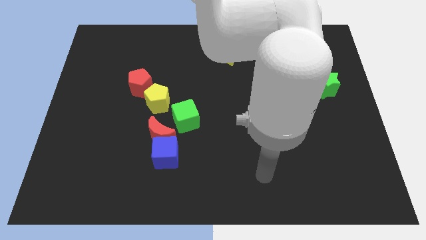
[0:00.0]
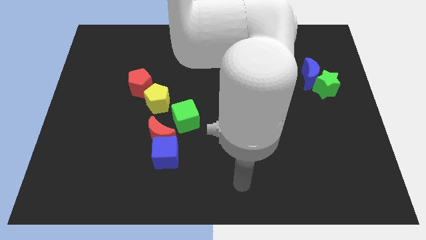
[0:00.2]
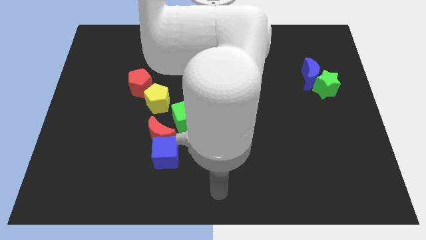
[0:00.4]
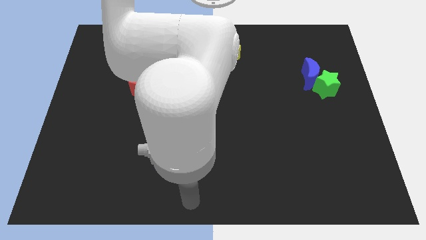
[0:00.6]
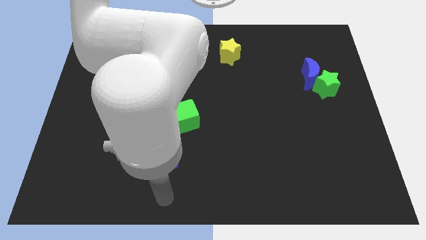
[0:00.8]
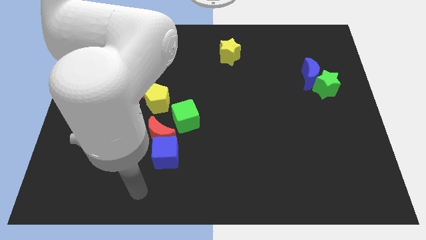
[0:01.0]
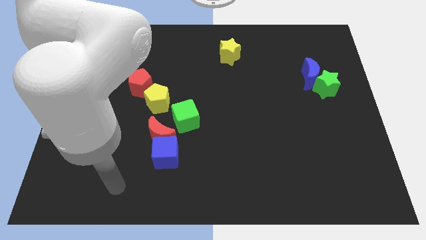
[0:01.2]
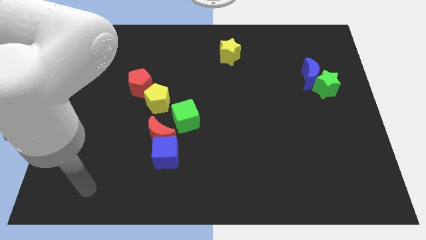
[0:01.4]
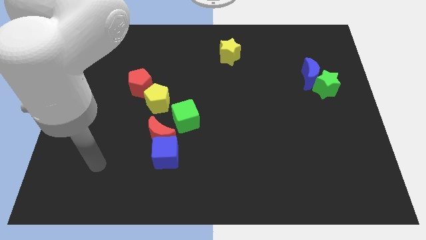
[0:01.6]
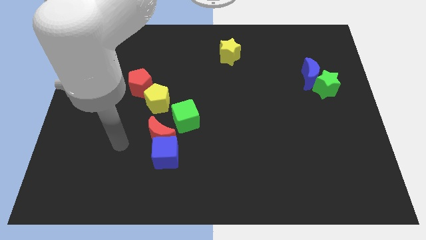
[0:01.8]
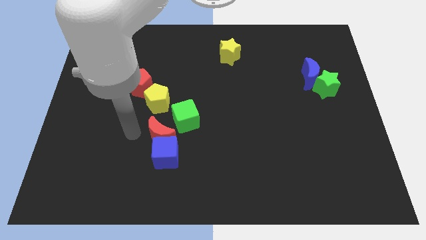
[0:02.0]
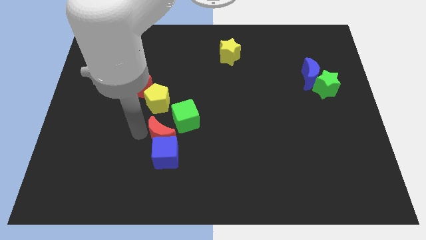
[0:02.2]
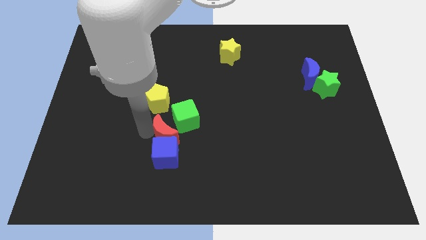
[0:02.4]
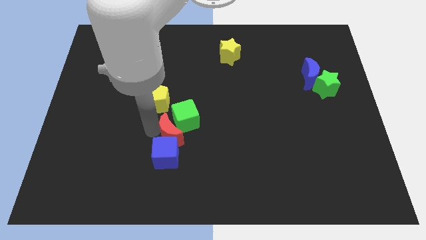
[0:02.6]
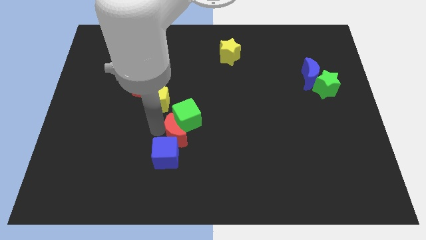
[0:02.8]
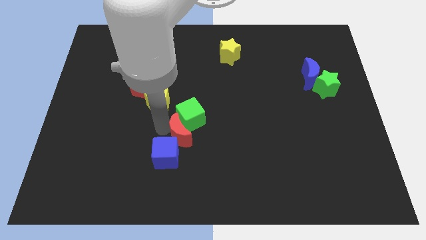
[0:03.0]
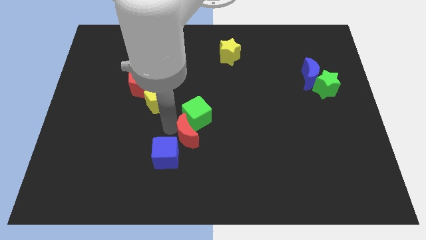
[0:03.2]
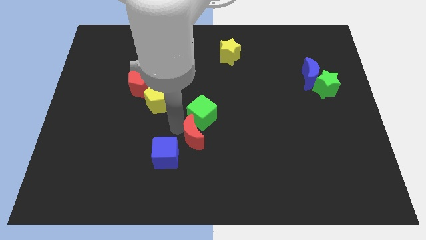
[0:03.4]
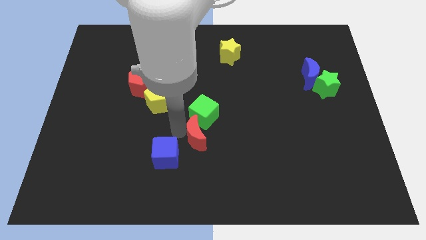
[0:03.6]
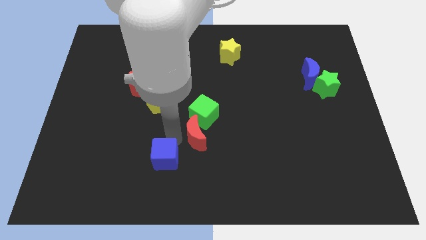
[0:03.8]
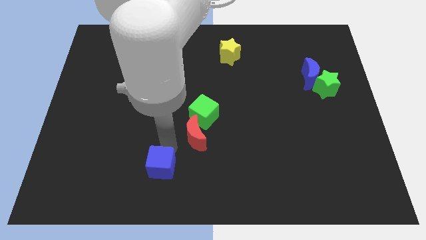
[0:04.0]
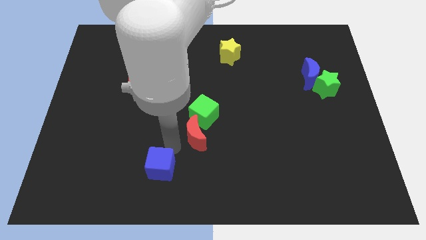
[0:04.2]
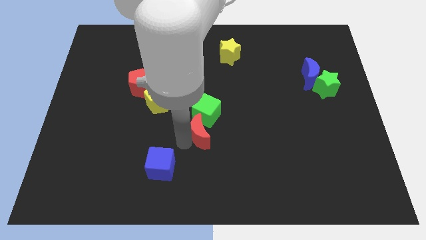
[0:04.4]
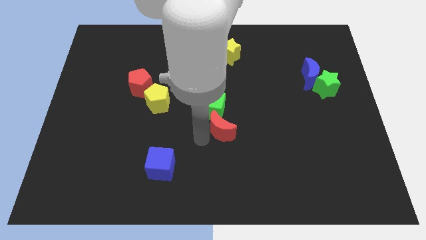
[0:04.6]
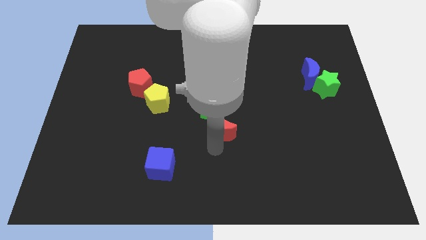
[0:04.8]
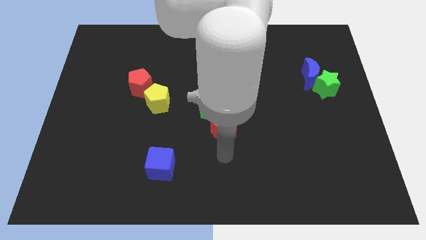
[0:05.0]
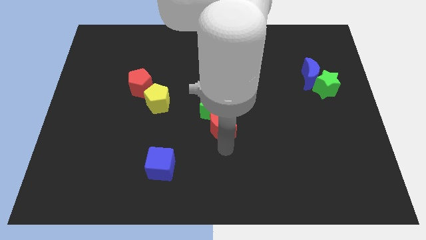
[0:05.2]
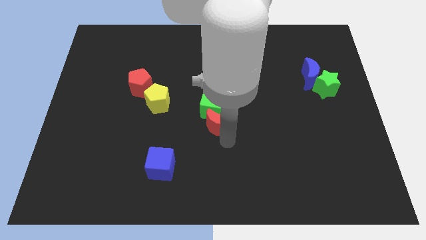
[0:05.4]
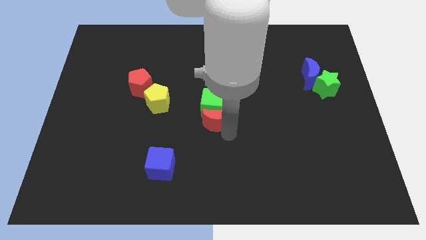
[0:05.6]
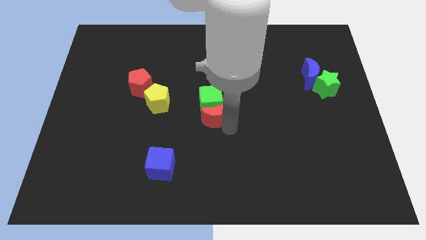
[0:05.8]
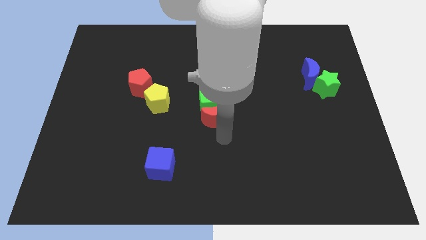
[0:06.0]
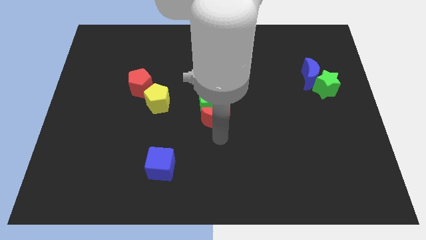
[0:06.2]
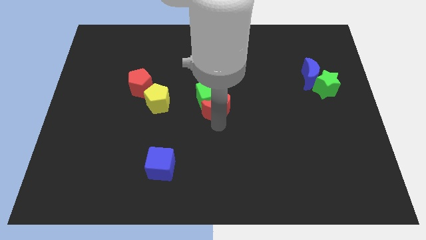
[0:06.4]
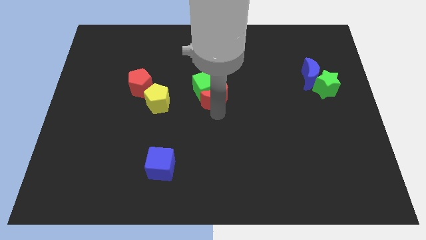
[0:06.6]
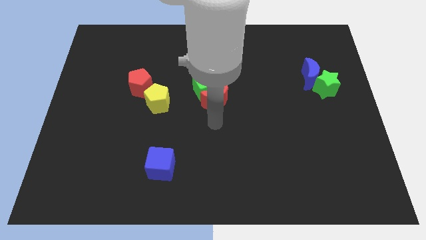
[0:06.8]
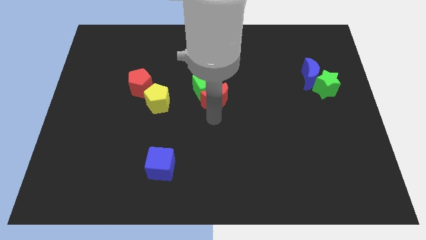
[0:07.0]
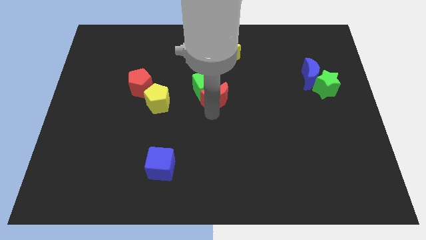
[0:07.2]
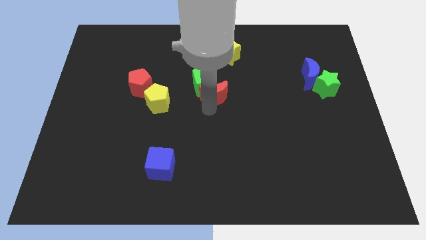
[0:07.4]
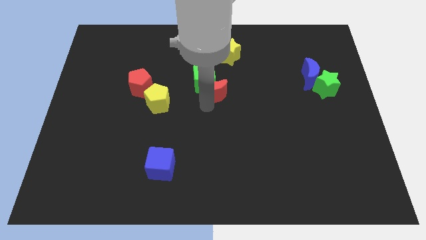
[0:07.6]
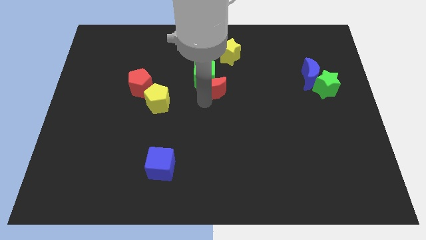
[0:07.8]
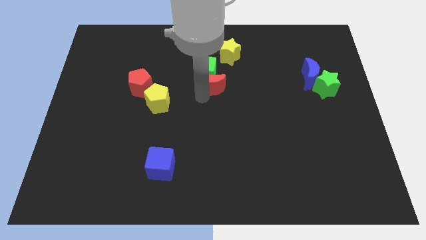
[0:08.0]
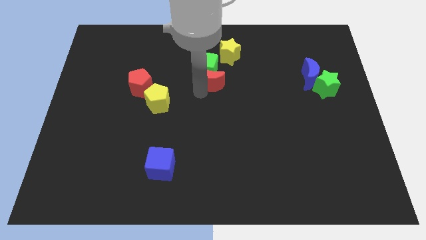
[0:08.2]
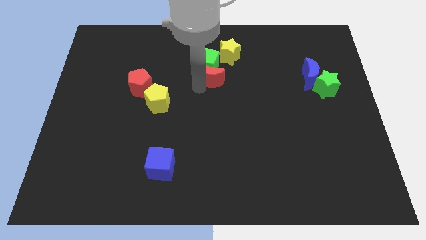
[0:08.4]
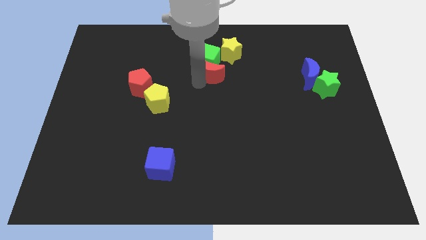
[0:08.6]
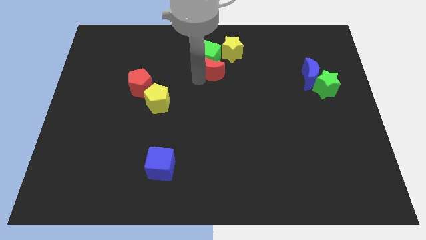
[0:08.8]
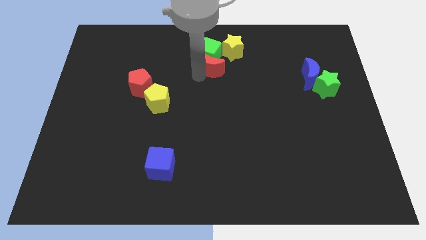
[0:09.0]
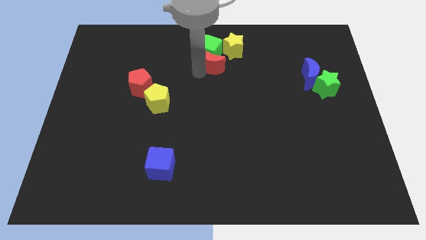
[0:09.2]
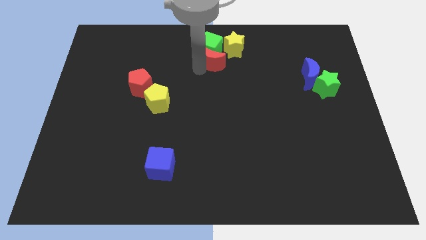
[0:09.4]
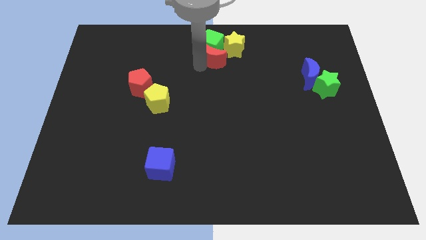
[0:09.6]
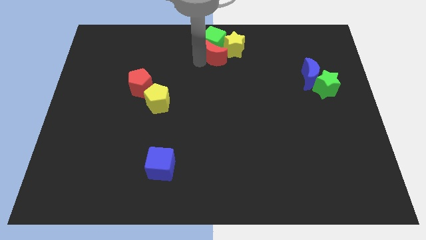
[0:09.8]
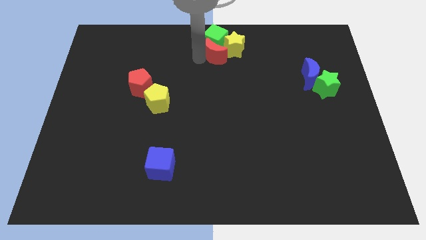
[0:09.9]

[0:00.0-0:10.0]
move the red moon next to the yellow star

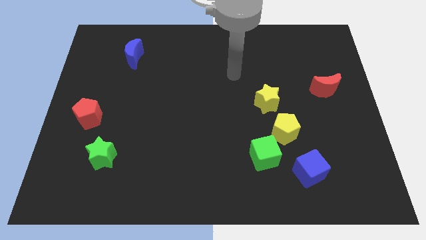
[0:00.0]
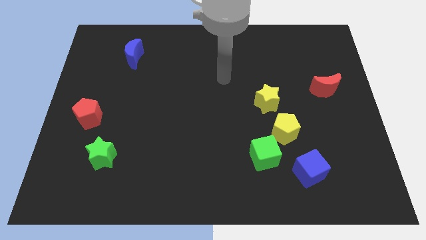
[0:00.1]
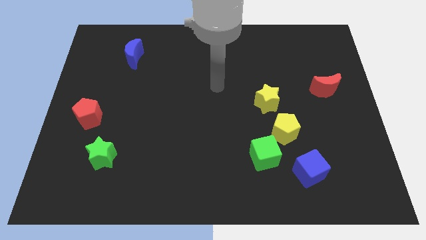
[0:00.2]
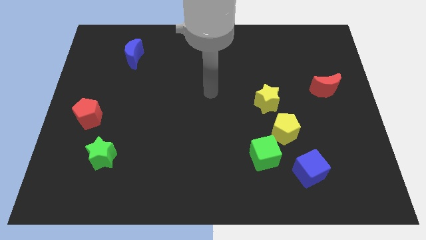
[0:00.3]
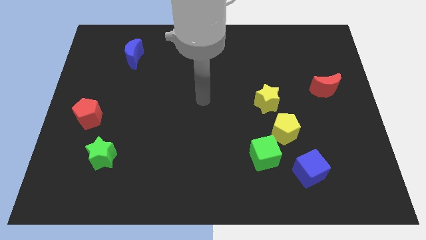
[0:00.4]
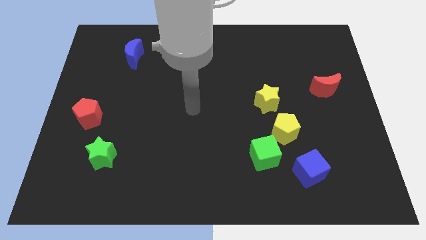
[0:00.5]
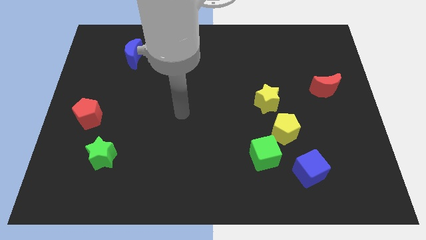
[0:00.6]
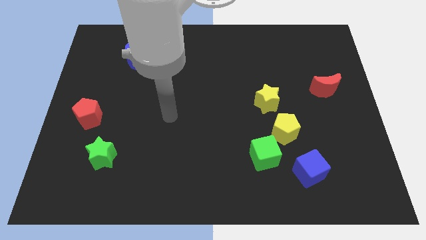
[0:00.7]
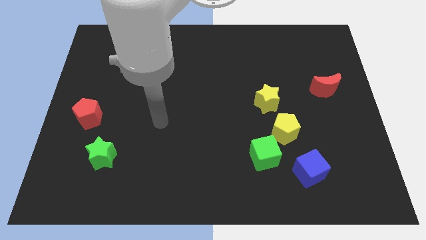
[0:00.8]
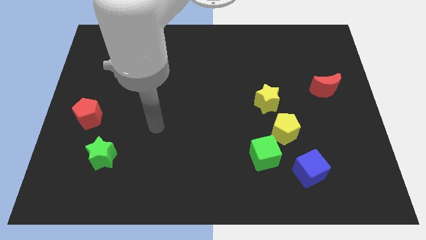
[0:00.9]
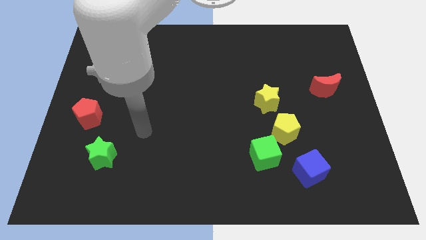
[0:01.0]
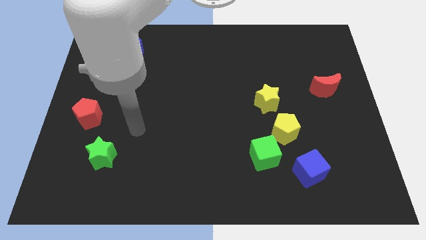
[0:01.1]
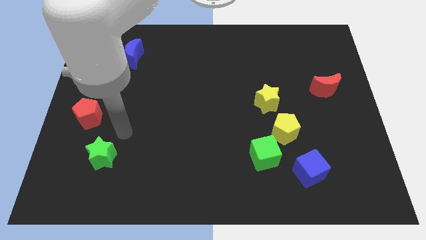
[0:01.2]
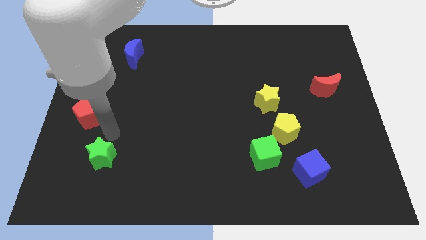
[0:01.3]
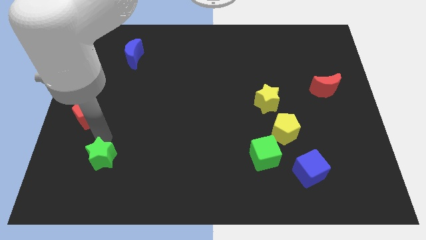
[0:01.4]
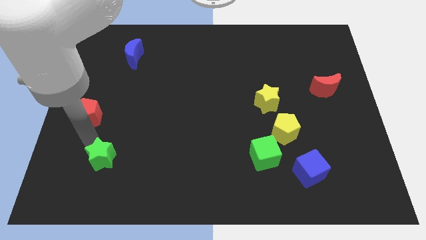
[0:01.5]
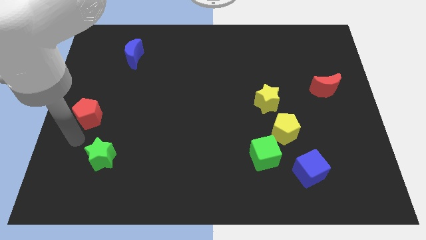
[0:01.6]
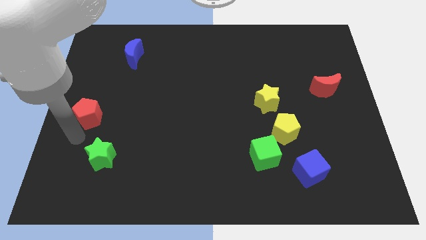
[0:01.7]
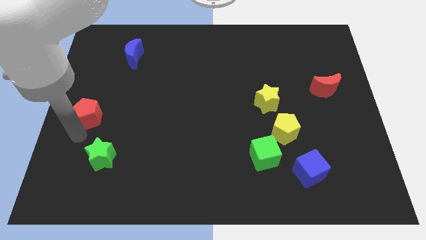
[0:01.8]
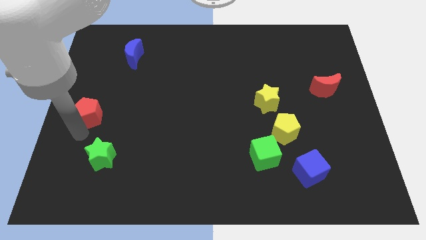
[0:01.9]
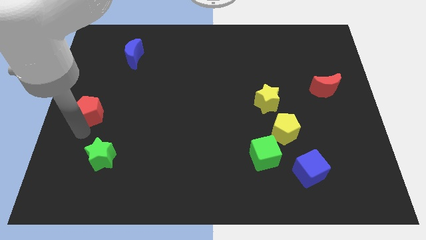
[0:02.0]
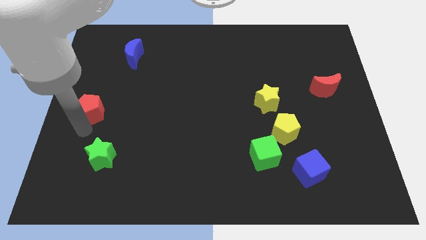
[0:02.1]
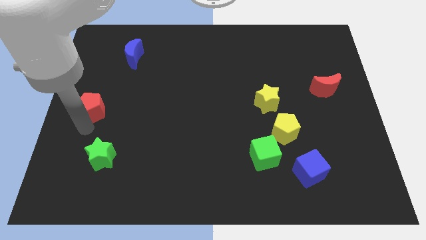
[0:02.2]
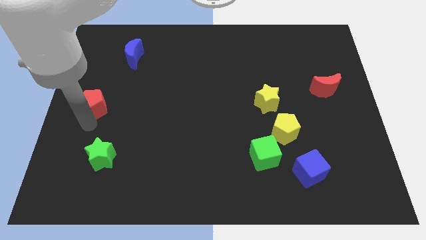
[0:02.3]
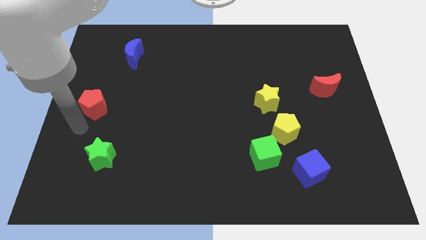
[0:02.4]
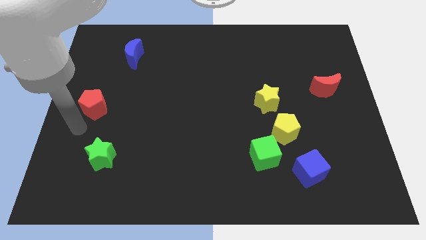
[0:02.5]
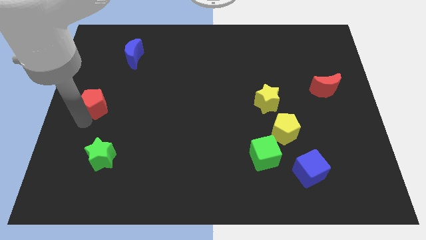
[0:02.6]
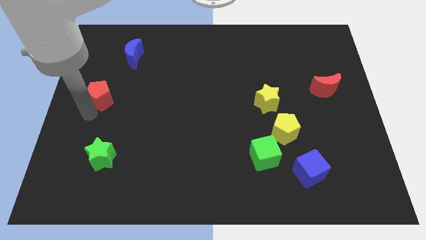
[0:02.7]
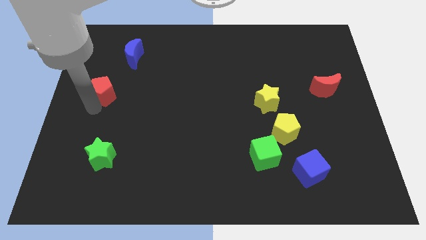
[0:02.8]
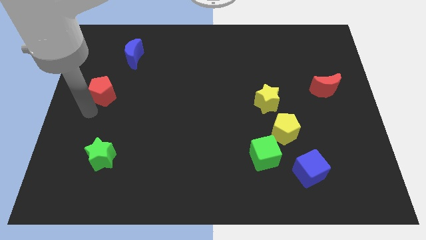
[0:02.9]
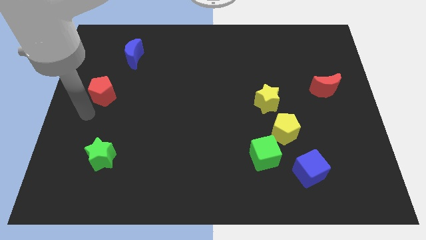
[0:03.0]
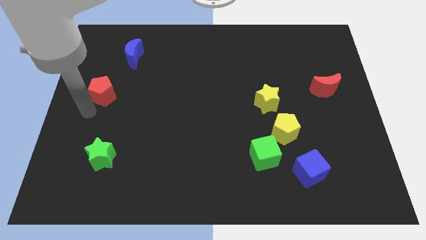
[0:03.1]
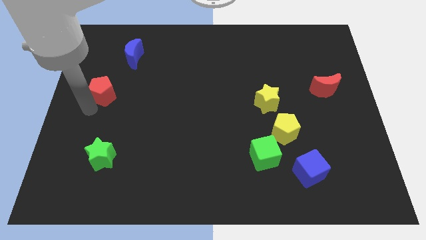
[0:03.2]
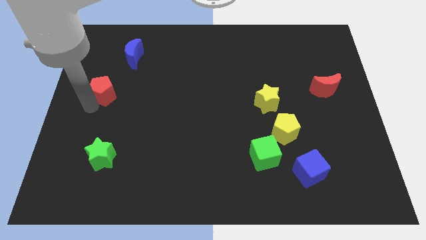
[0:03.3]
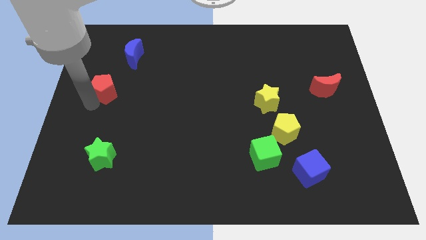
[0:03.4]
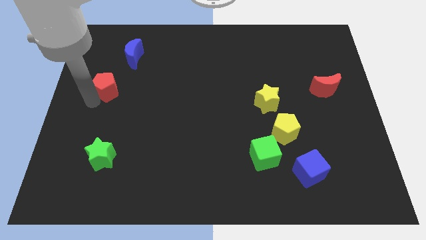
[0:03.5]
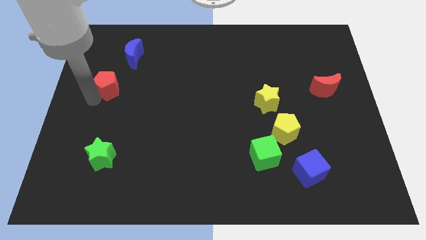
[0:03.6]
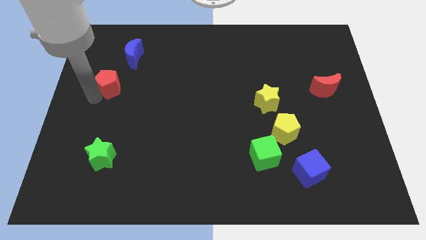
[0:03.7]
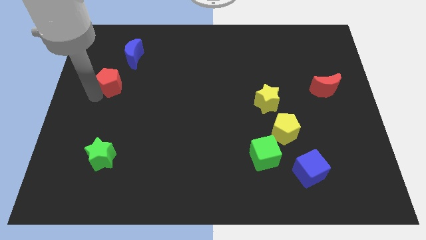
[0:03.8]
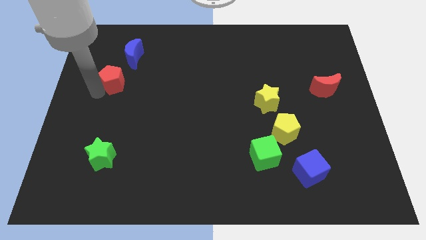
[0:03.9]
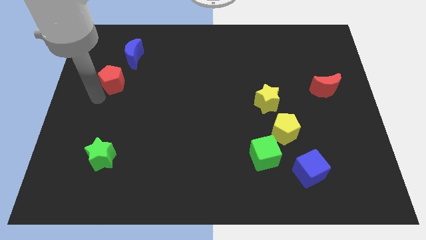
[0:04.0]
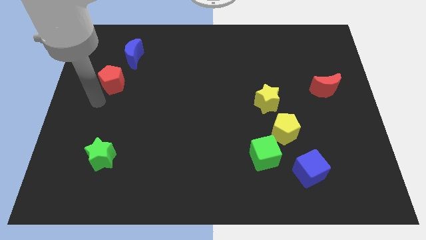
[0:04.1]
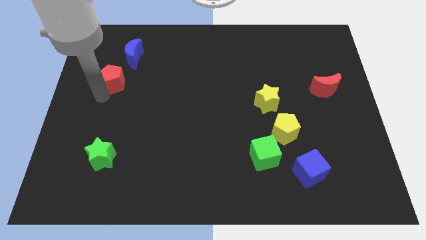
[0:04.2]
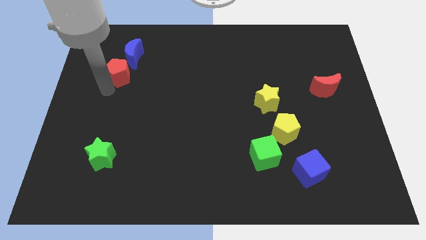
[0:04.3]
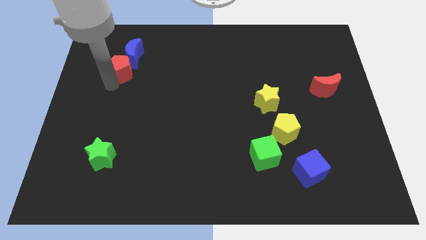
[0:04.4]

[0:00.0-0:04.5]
slide the red pentagon close to the blue moon
